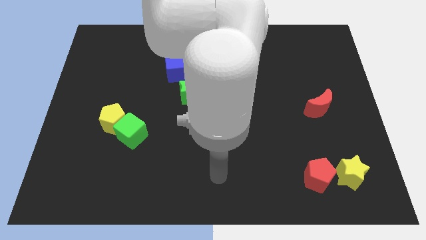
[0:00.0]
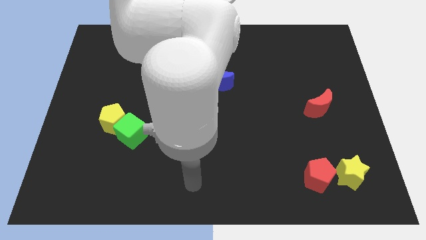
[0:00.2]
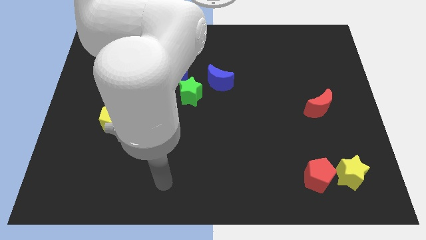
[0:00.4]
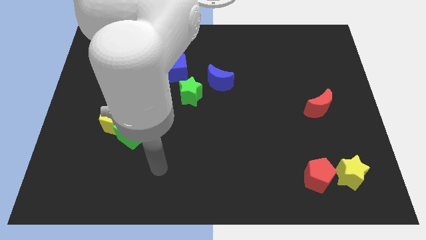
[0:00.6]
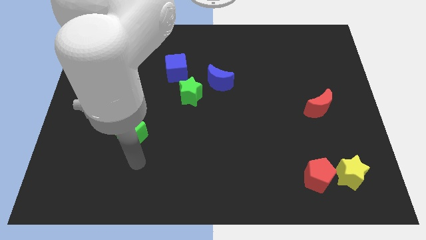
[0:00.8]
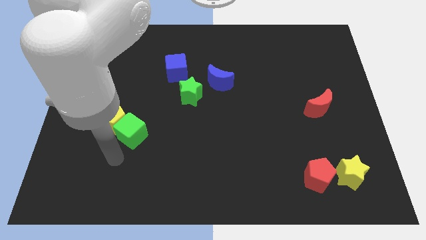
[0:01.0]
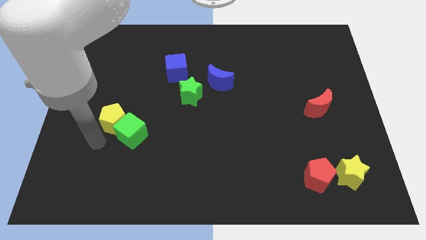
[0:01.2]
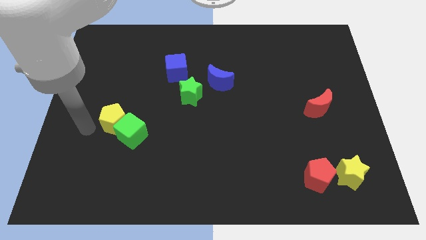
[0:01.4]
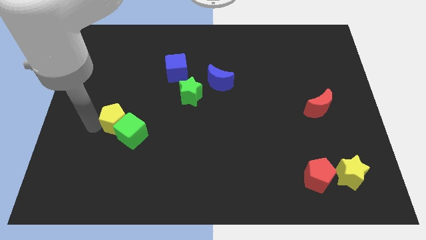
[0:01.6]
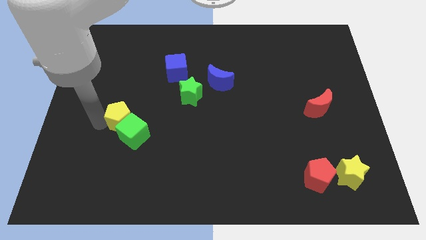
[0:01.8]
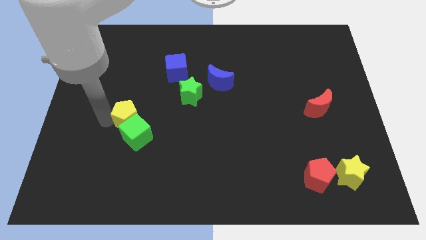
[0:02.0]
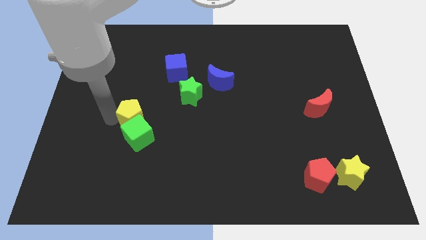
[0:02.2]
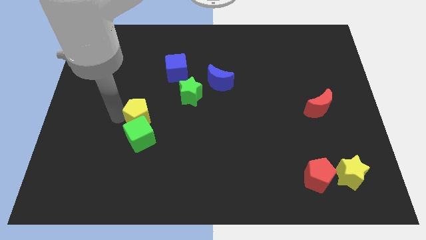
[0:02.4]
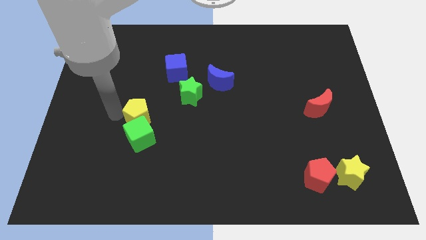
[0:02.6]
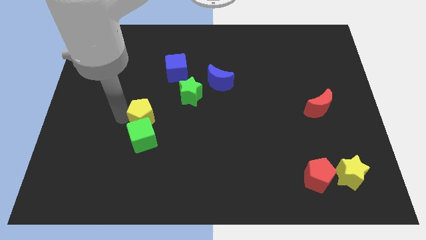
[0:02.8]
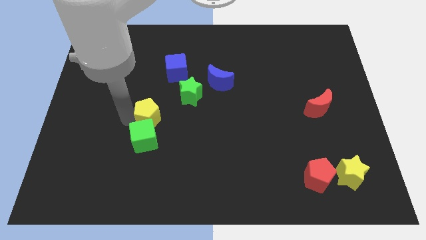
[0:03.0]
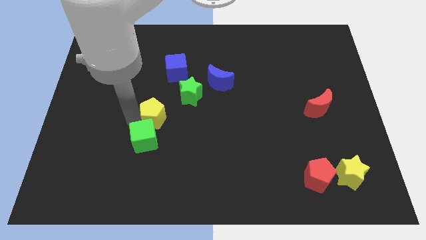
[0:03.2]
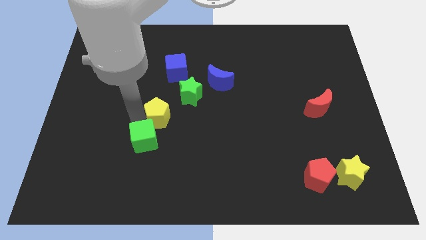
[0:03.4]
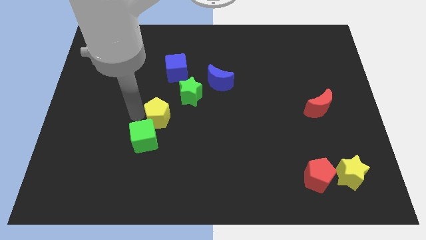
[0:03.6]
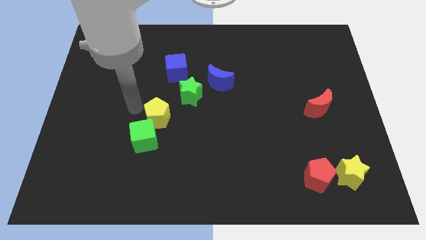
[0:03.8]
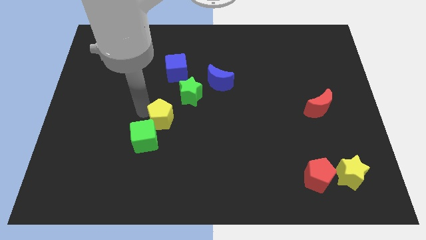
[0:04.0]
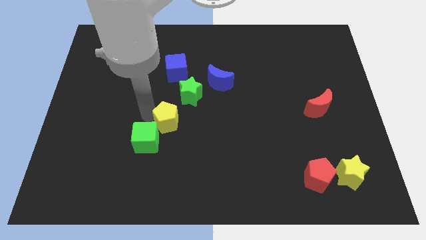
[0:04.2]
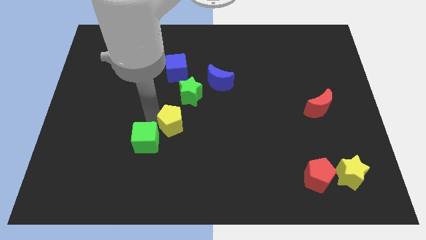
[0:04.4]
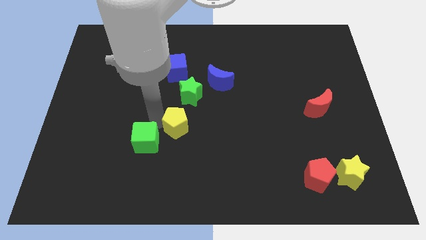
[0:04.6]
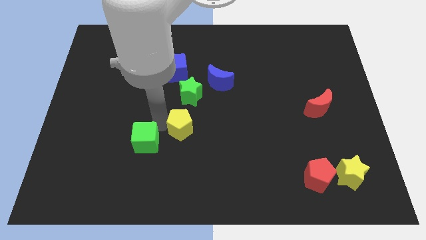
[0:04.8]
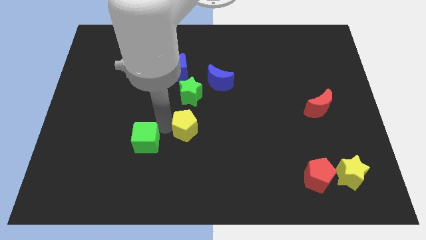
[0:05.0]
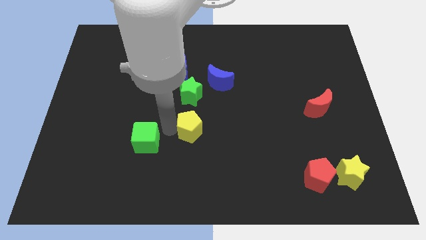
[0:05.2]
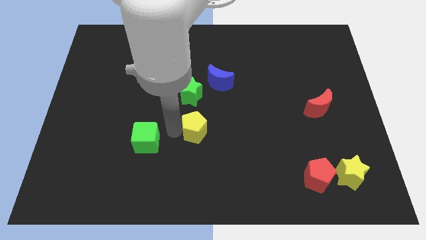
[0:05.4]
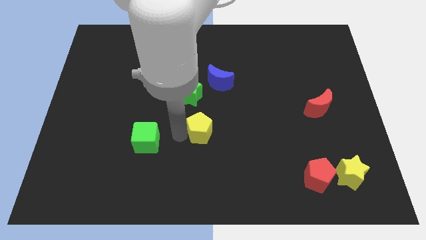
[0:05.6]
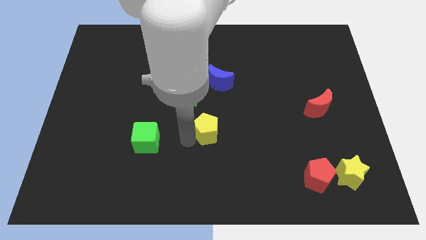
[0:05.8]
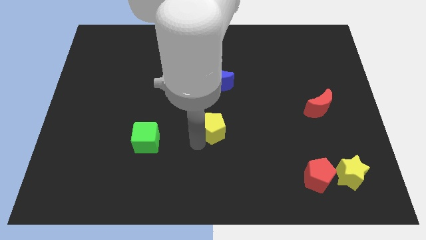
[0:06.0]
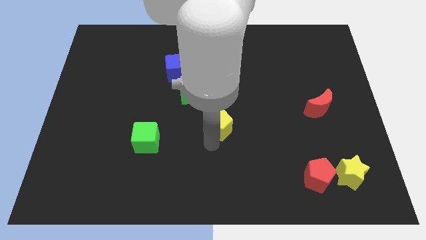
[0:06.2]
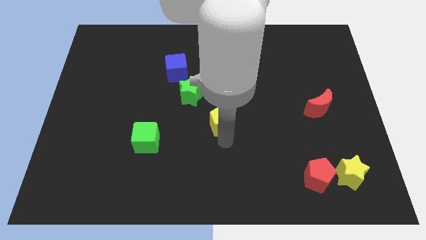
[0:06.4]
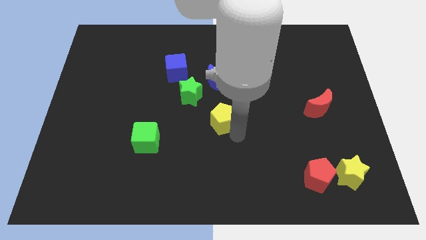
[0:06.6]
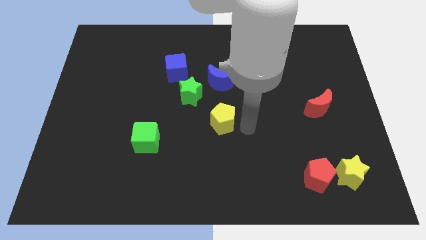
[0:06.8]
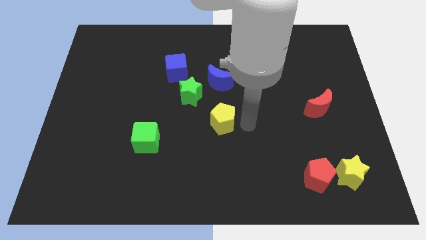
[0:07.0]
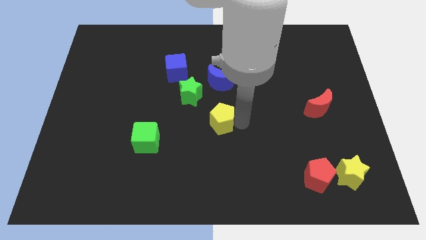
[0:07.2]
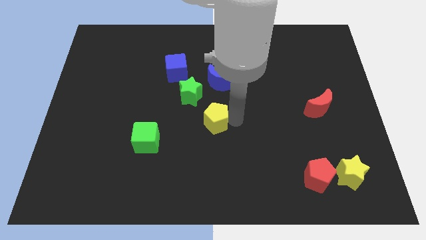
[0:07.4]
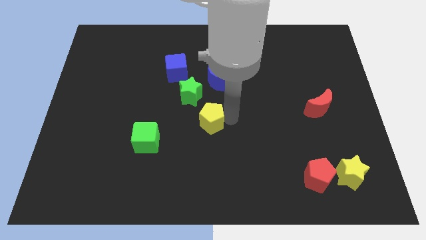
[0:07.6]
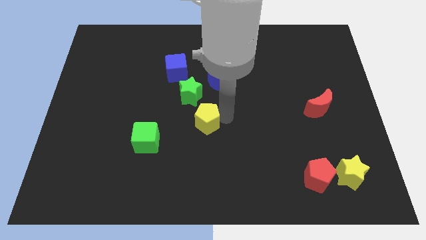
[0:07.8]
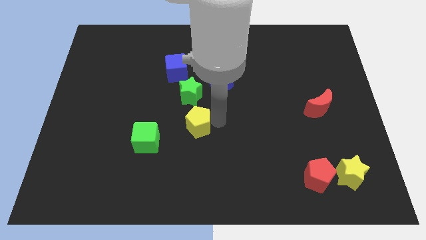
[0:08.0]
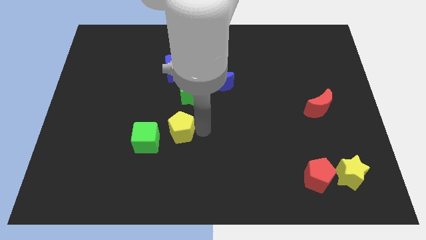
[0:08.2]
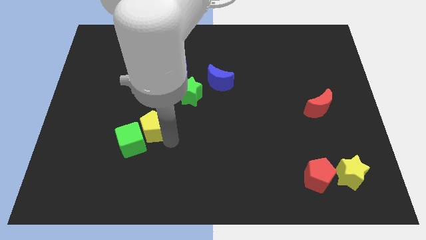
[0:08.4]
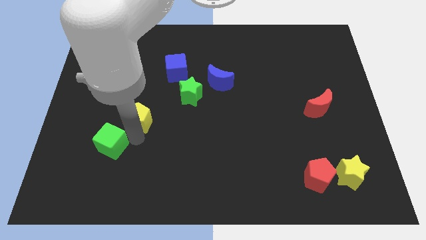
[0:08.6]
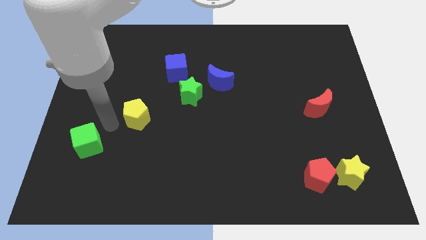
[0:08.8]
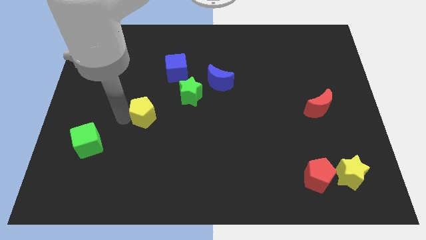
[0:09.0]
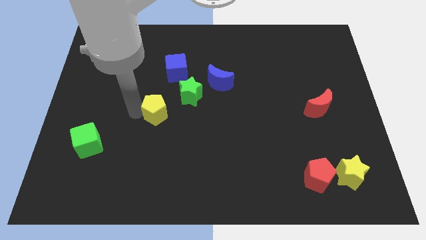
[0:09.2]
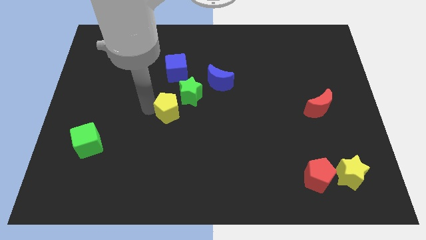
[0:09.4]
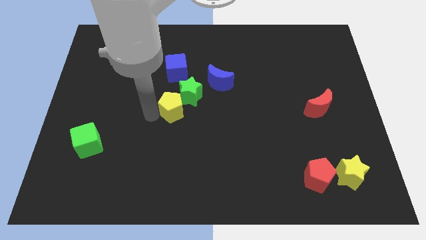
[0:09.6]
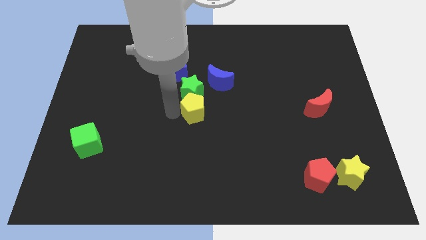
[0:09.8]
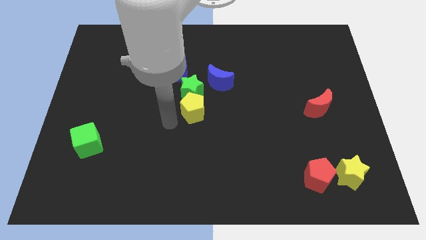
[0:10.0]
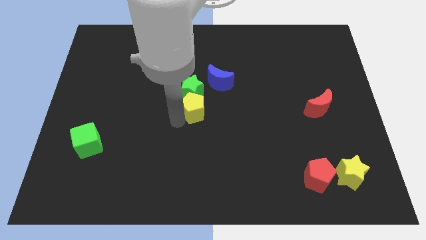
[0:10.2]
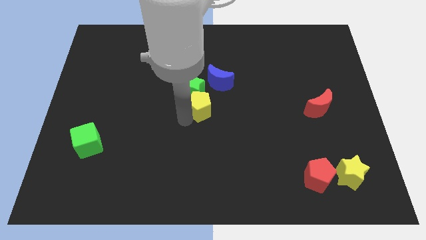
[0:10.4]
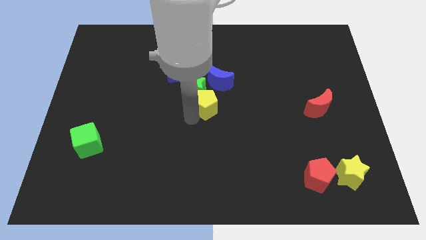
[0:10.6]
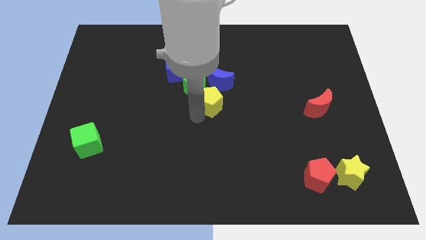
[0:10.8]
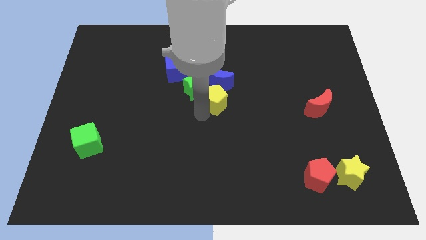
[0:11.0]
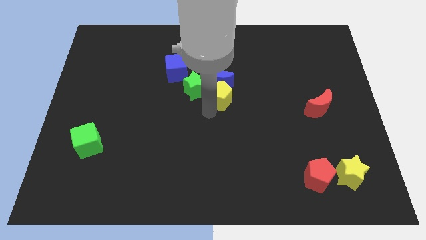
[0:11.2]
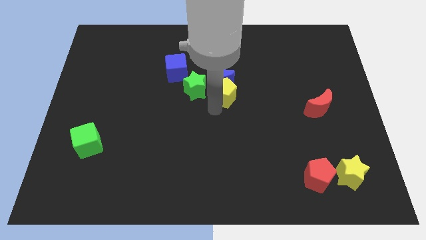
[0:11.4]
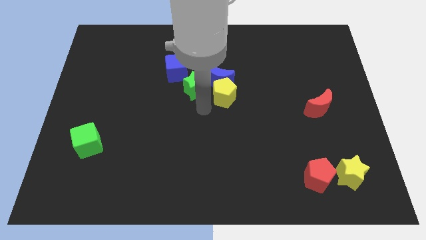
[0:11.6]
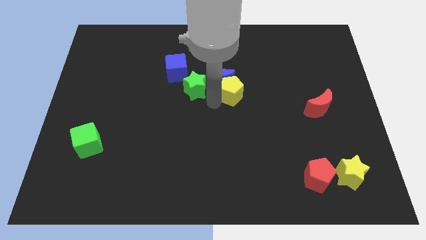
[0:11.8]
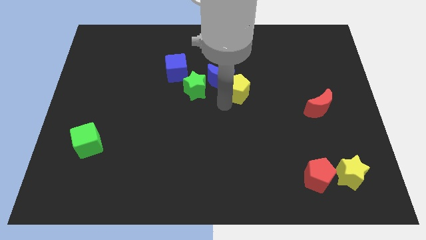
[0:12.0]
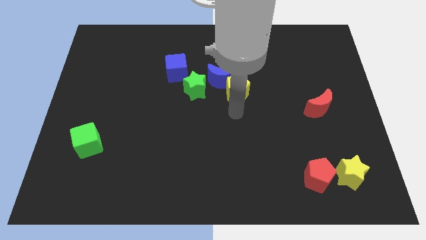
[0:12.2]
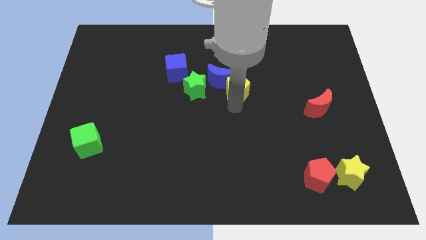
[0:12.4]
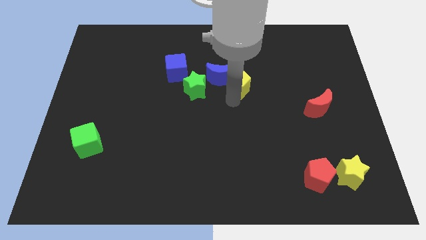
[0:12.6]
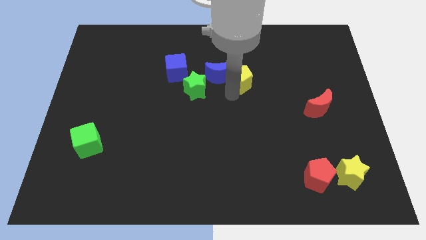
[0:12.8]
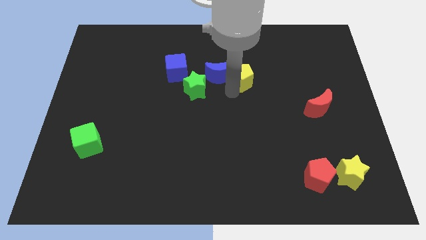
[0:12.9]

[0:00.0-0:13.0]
move the yellow pentagon to the top right of the blue moon

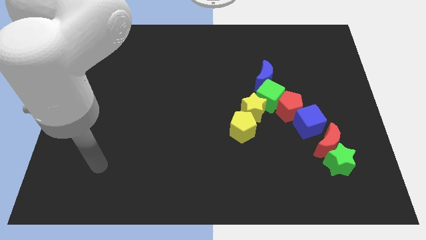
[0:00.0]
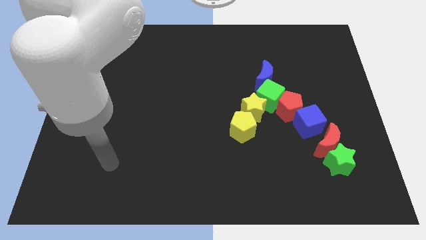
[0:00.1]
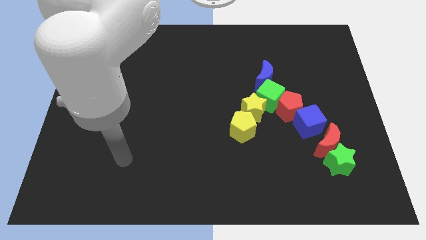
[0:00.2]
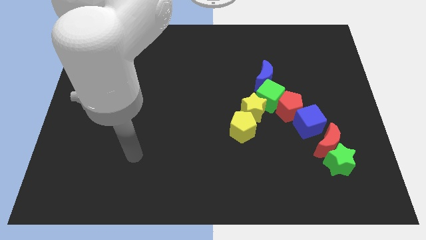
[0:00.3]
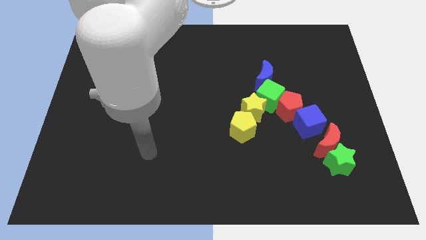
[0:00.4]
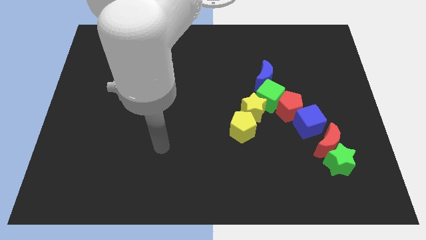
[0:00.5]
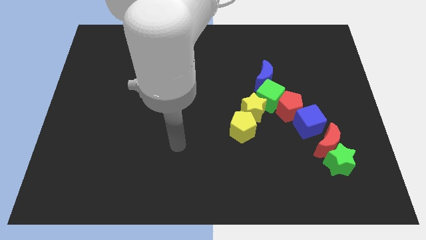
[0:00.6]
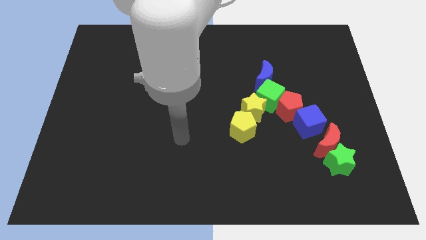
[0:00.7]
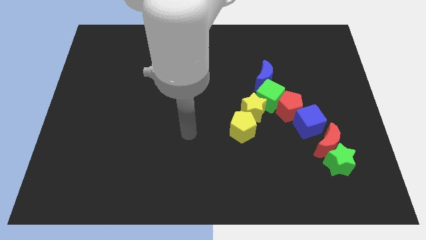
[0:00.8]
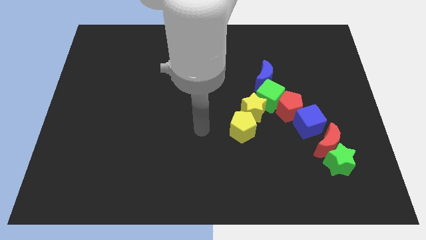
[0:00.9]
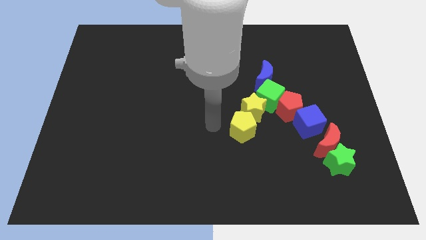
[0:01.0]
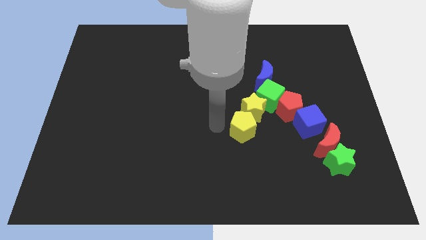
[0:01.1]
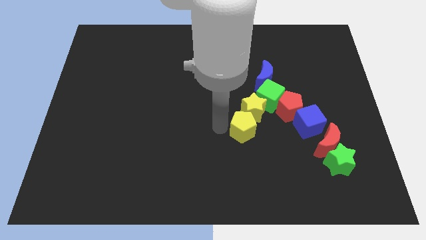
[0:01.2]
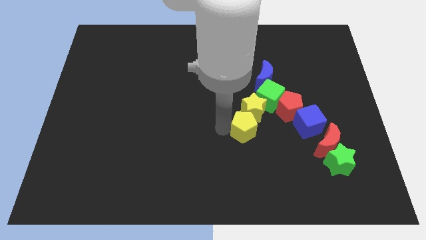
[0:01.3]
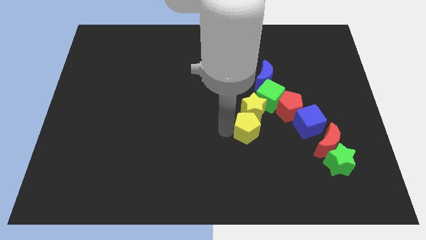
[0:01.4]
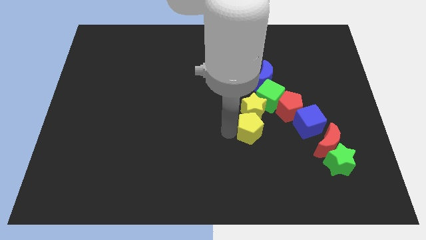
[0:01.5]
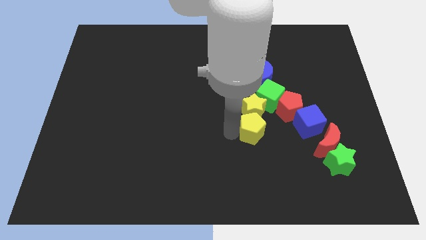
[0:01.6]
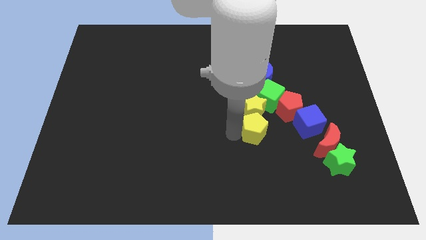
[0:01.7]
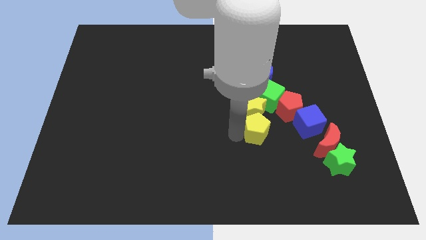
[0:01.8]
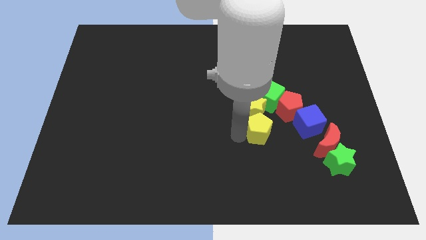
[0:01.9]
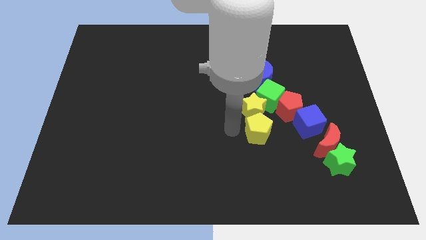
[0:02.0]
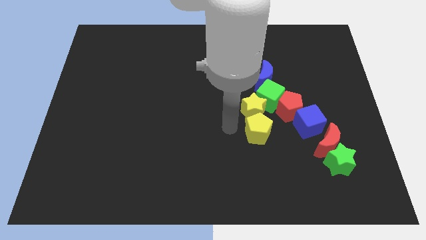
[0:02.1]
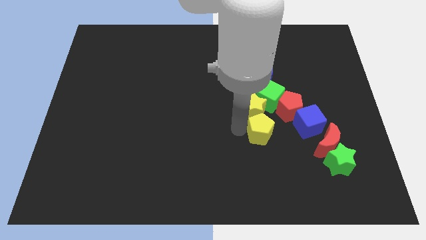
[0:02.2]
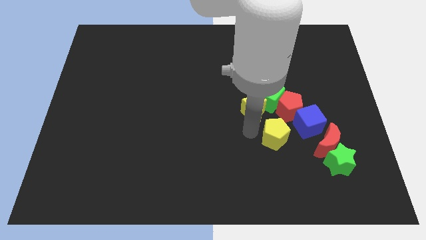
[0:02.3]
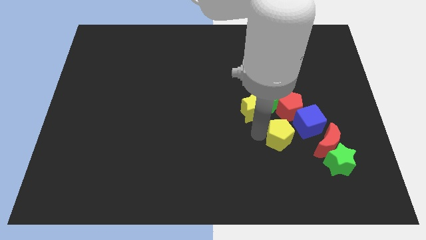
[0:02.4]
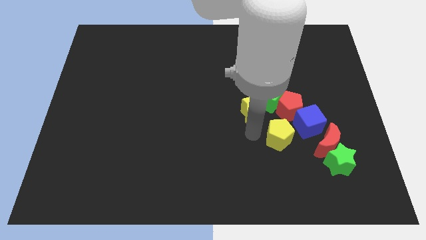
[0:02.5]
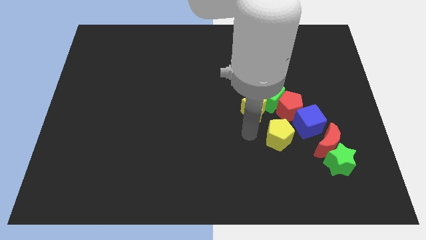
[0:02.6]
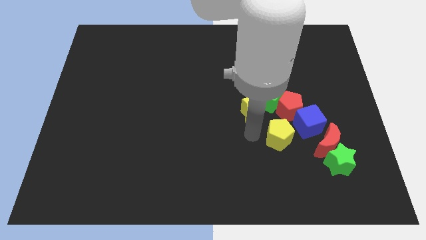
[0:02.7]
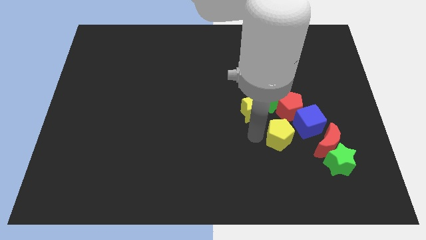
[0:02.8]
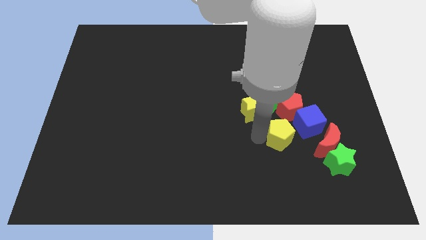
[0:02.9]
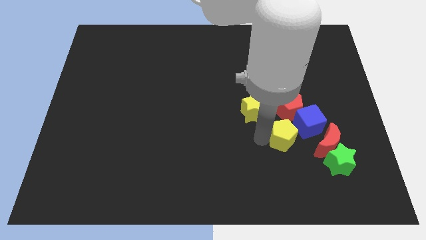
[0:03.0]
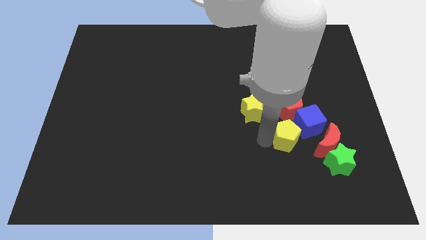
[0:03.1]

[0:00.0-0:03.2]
move the yellow pentagon to the top left of the green star
